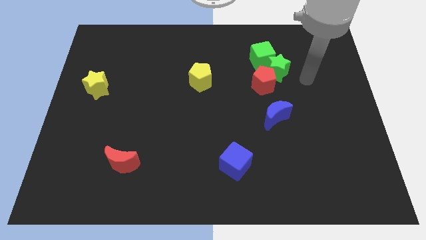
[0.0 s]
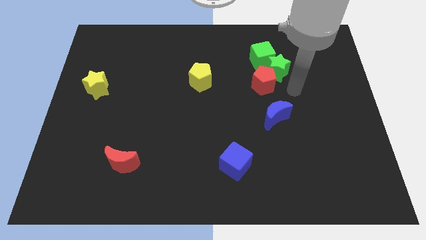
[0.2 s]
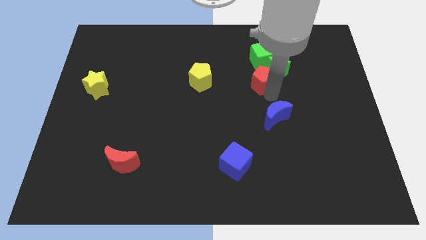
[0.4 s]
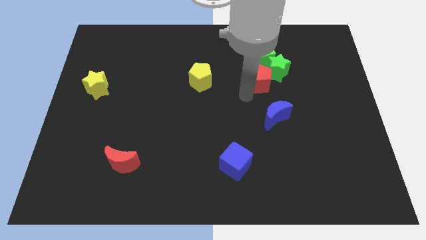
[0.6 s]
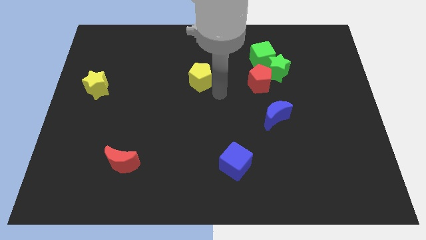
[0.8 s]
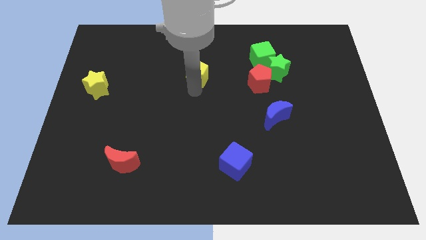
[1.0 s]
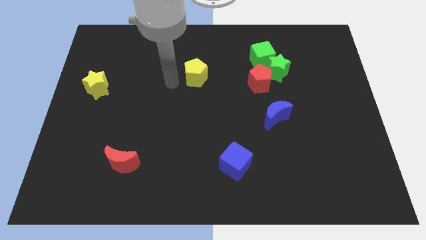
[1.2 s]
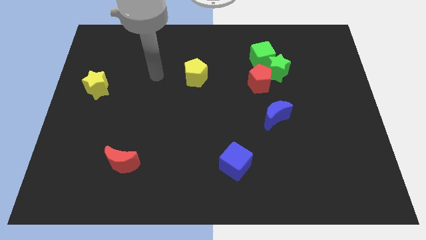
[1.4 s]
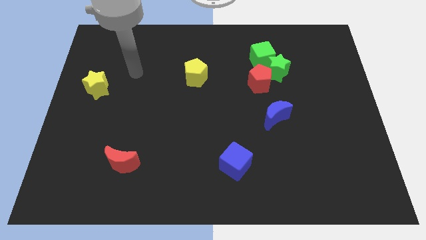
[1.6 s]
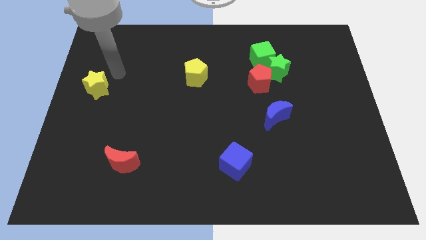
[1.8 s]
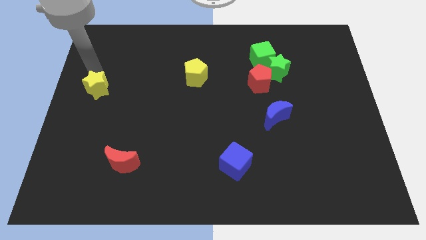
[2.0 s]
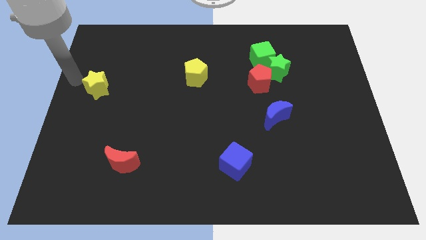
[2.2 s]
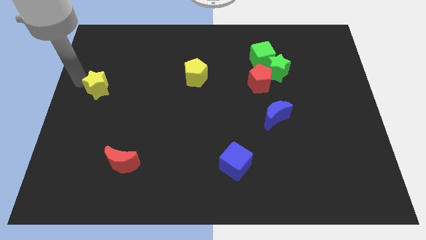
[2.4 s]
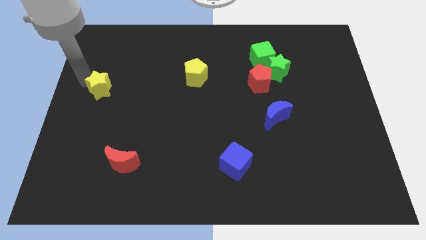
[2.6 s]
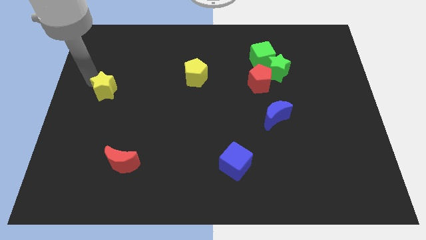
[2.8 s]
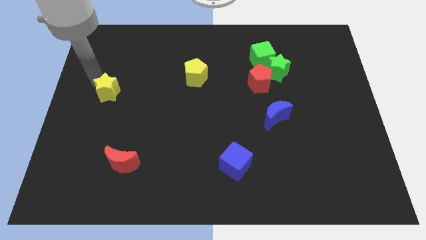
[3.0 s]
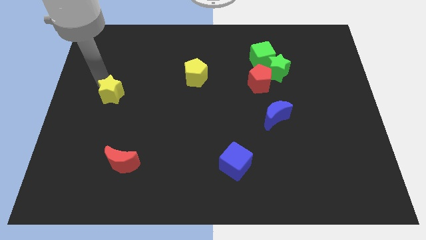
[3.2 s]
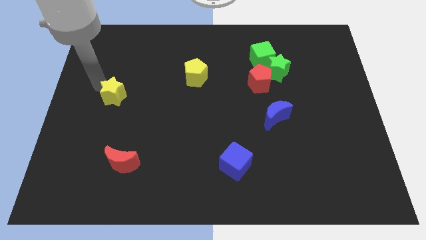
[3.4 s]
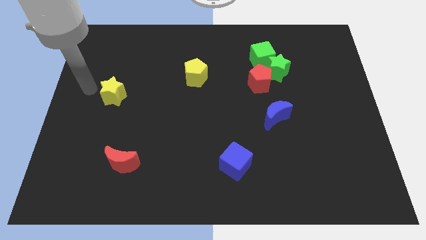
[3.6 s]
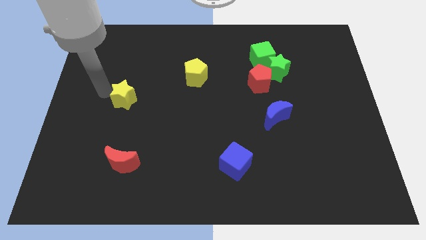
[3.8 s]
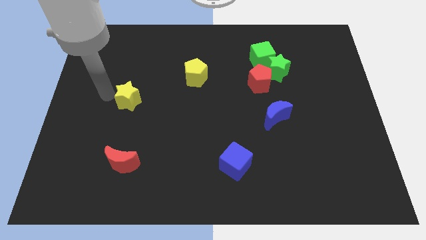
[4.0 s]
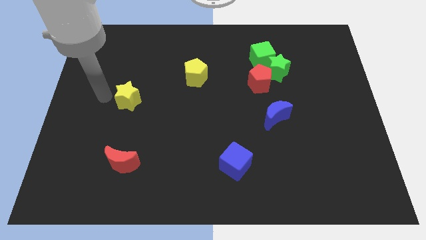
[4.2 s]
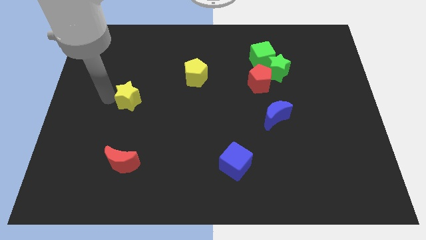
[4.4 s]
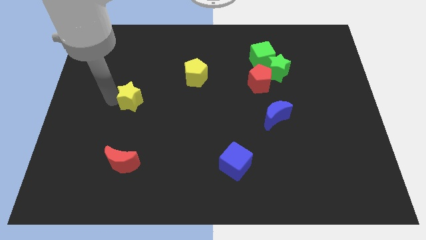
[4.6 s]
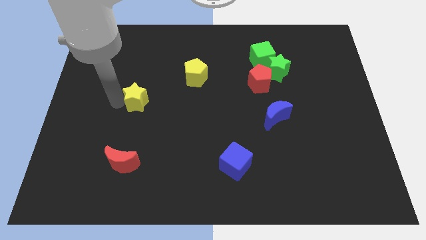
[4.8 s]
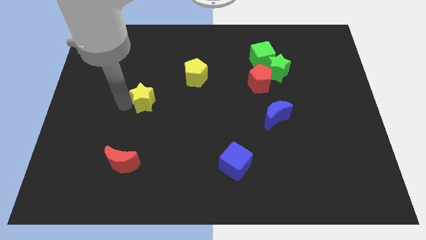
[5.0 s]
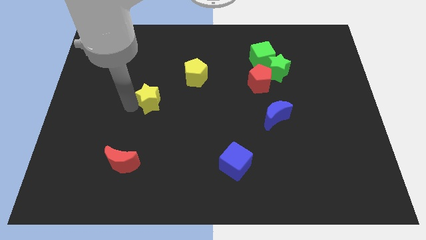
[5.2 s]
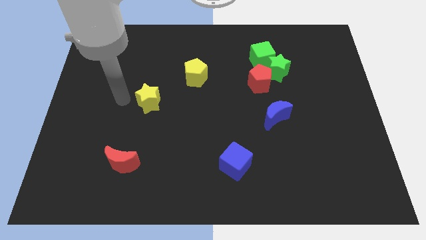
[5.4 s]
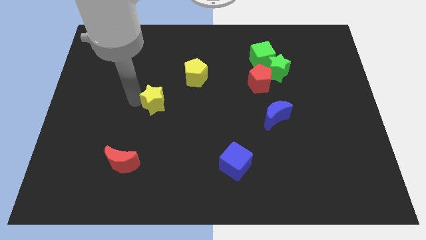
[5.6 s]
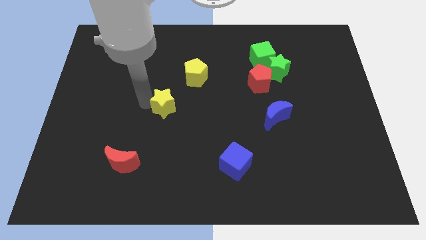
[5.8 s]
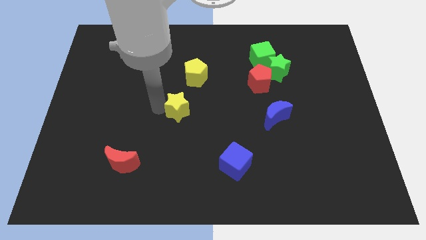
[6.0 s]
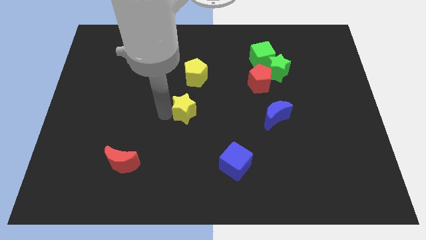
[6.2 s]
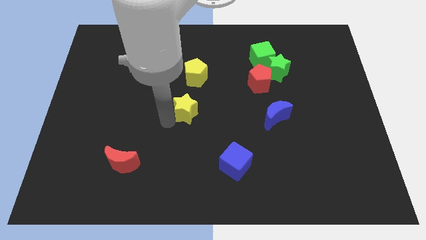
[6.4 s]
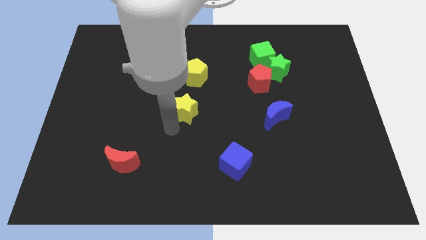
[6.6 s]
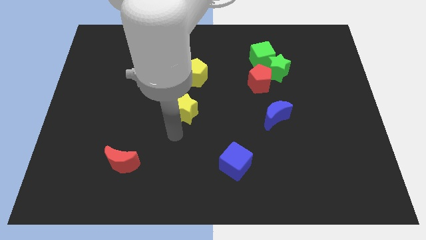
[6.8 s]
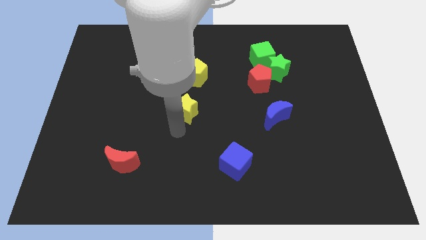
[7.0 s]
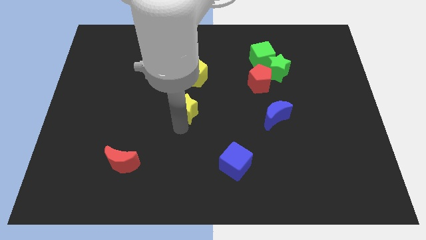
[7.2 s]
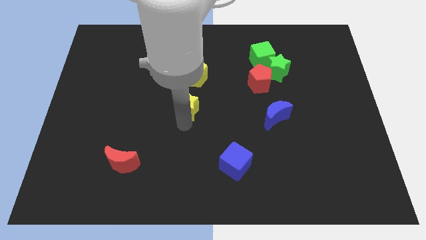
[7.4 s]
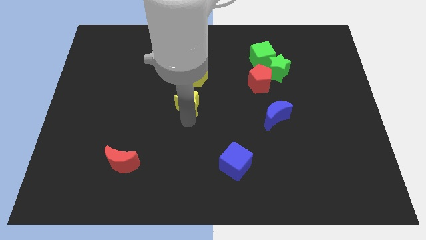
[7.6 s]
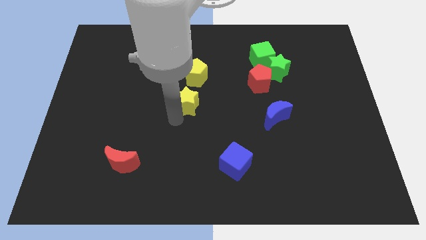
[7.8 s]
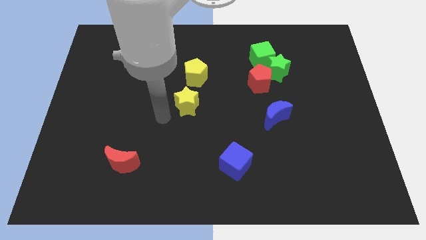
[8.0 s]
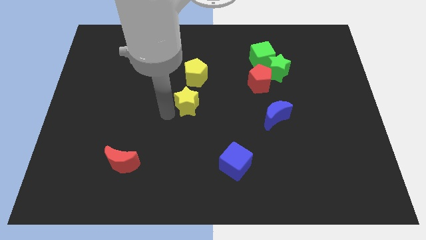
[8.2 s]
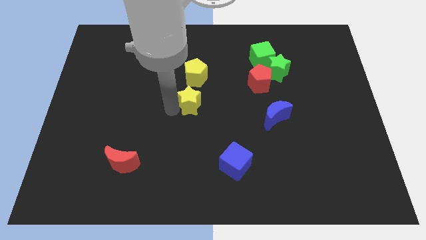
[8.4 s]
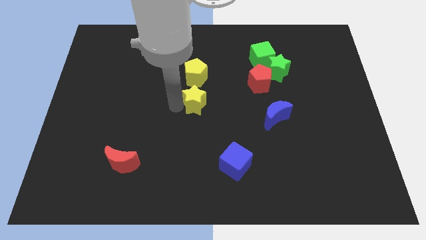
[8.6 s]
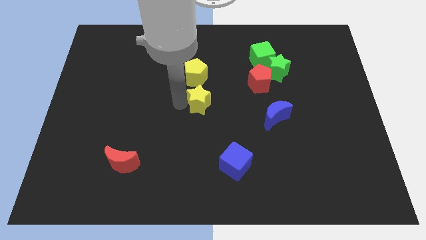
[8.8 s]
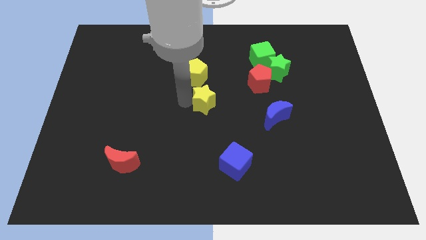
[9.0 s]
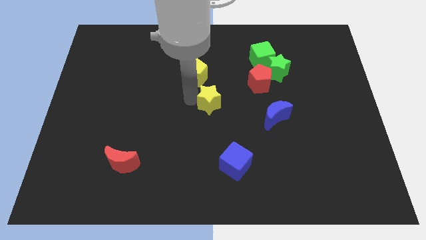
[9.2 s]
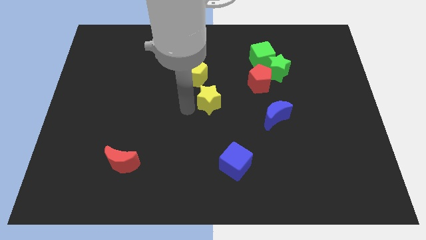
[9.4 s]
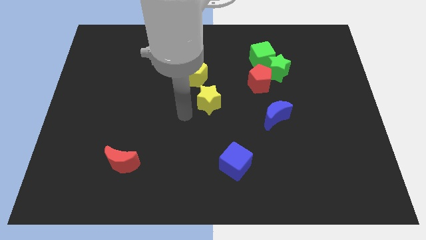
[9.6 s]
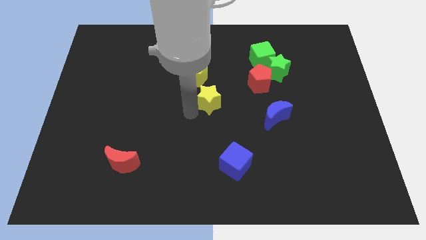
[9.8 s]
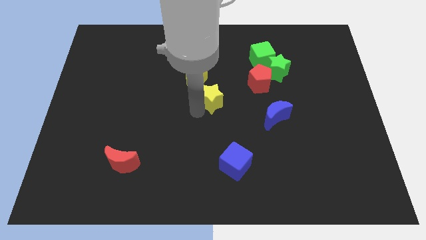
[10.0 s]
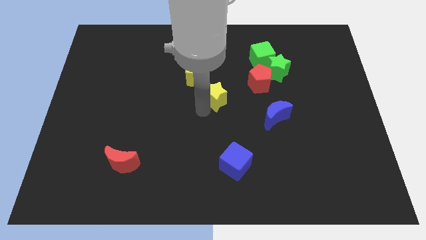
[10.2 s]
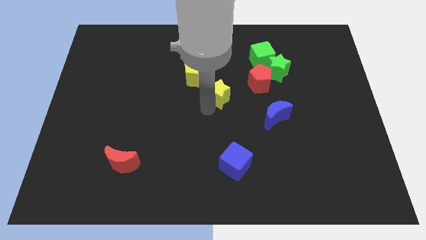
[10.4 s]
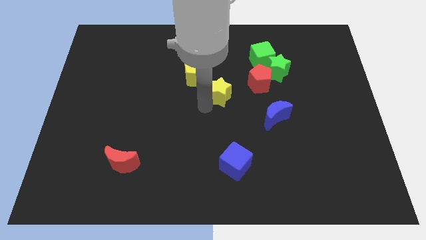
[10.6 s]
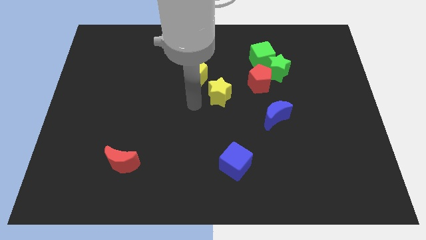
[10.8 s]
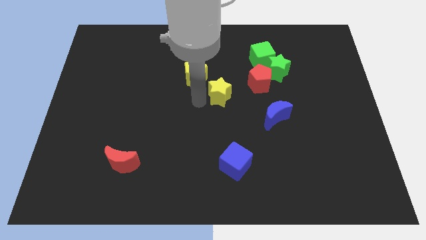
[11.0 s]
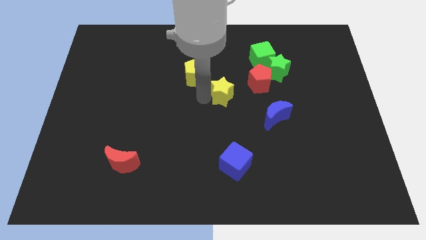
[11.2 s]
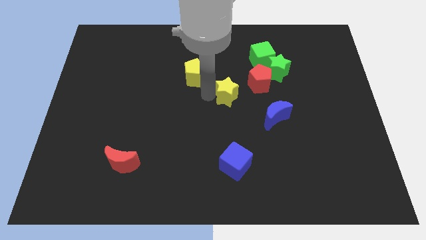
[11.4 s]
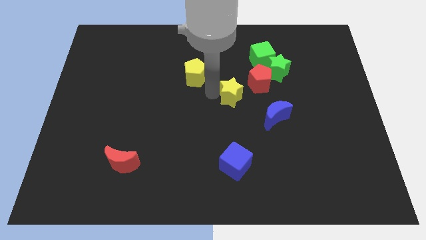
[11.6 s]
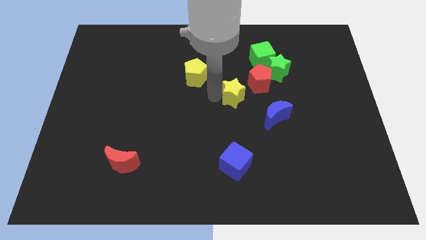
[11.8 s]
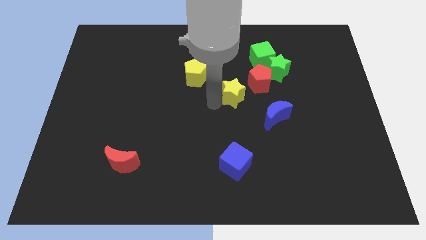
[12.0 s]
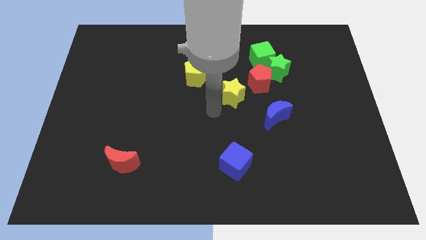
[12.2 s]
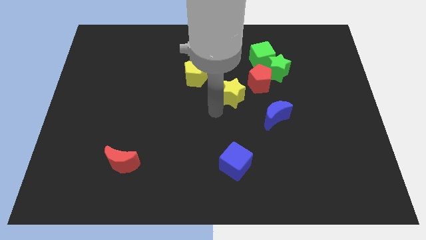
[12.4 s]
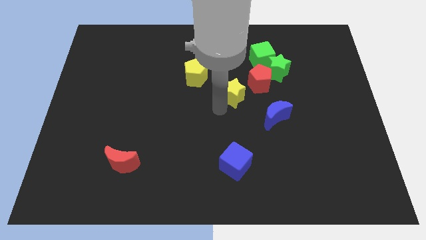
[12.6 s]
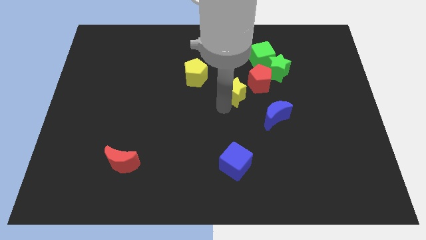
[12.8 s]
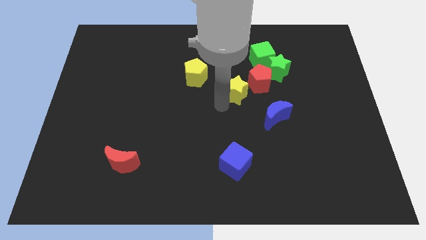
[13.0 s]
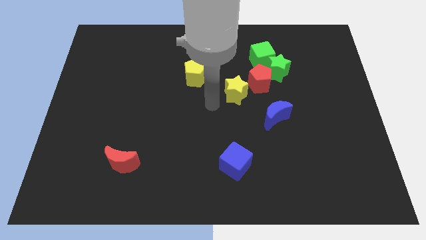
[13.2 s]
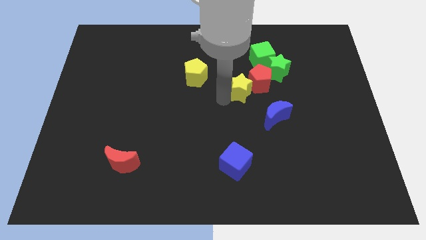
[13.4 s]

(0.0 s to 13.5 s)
put the yellow star towards the red pentagon
